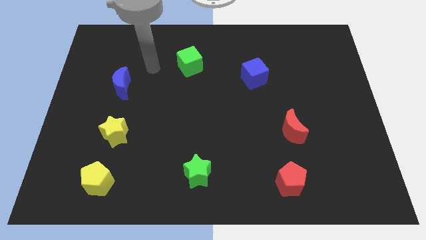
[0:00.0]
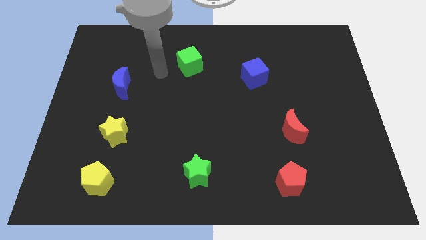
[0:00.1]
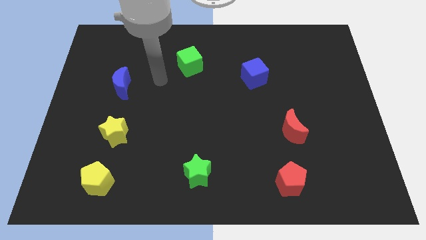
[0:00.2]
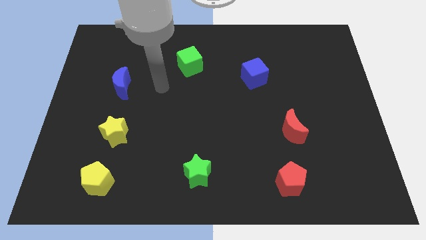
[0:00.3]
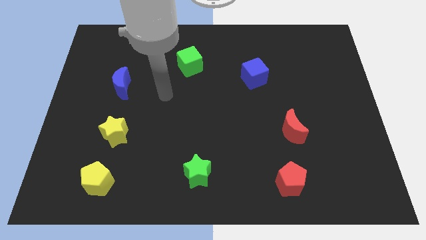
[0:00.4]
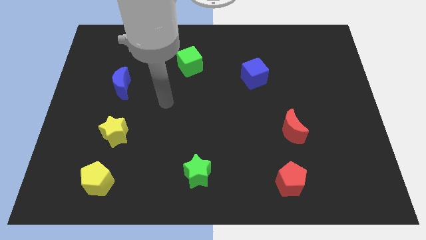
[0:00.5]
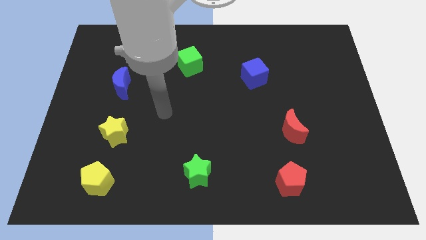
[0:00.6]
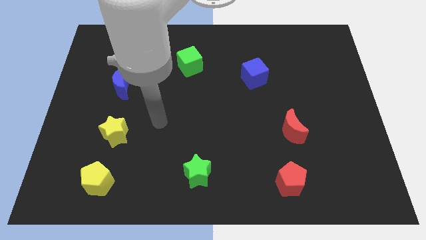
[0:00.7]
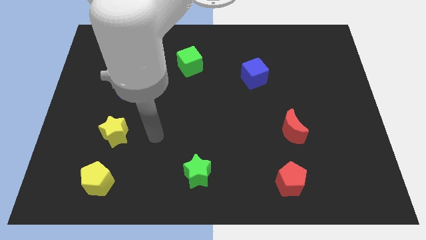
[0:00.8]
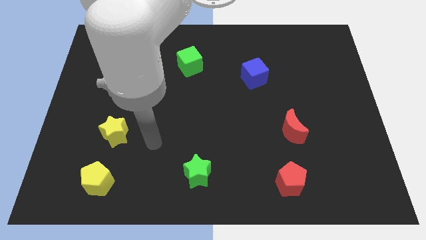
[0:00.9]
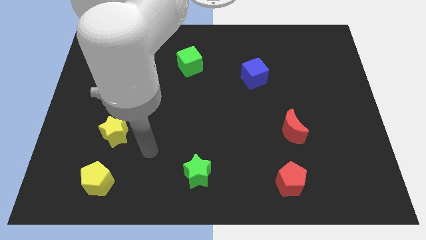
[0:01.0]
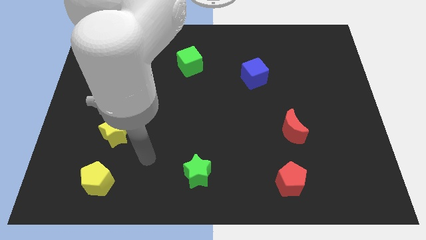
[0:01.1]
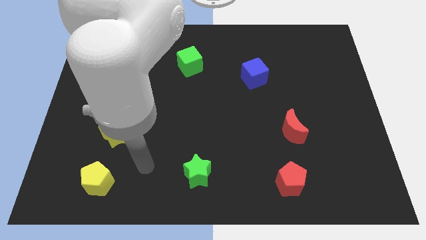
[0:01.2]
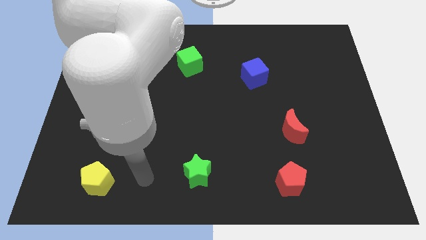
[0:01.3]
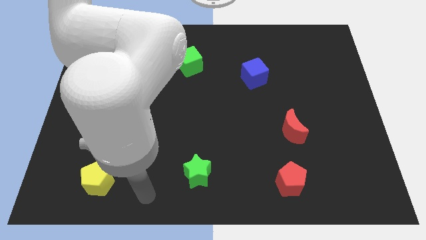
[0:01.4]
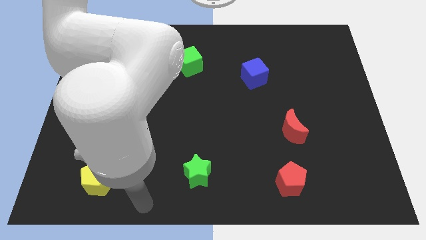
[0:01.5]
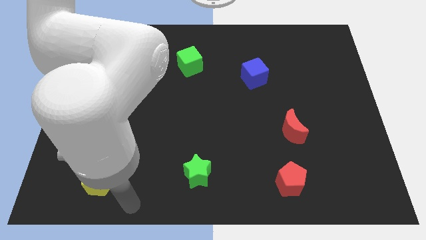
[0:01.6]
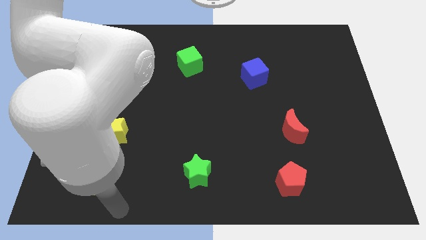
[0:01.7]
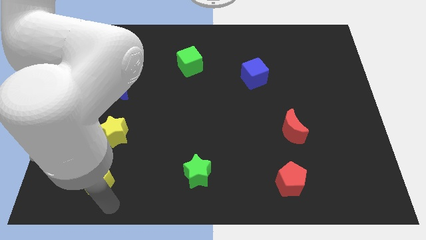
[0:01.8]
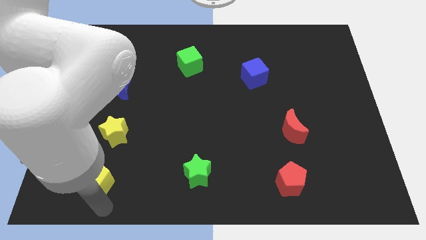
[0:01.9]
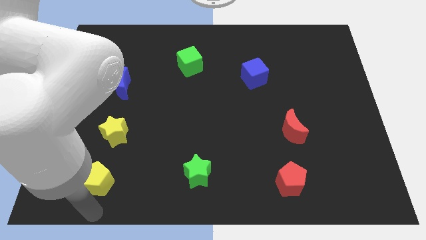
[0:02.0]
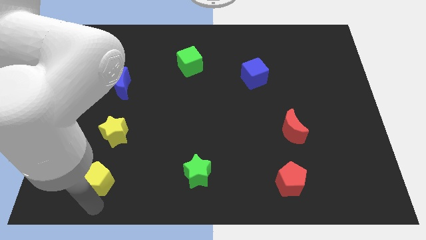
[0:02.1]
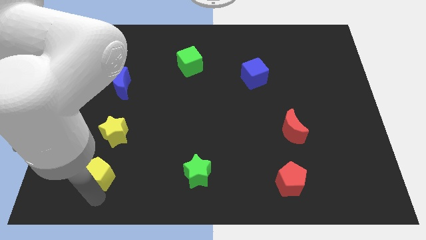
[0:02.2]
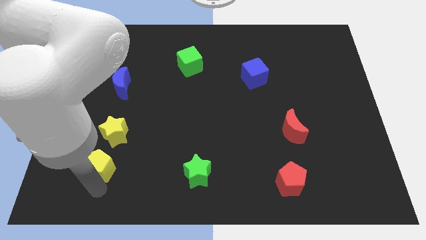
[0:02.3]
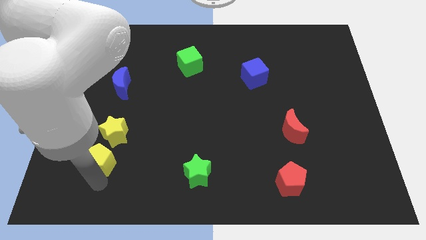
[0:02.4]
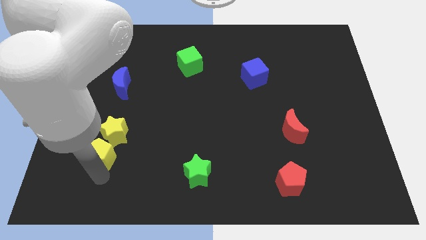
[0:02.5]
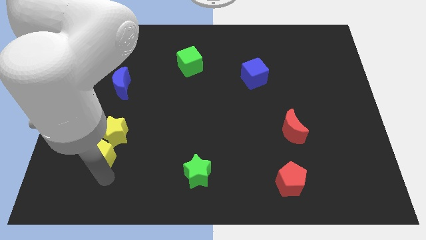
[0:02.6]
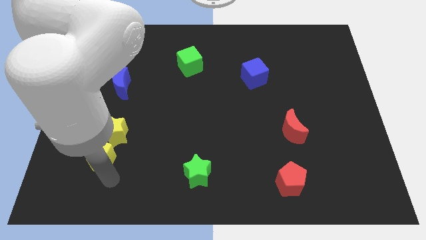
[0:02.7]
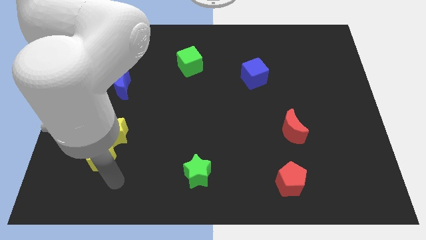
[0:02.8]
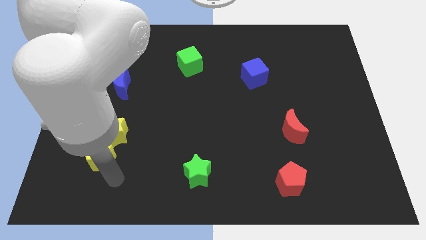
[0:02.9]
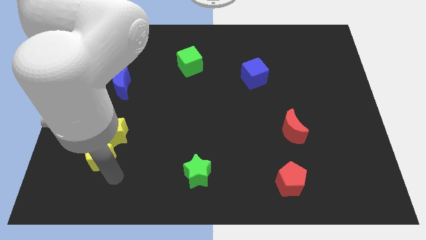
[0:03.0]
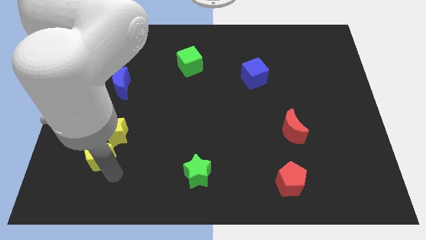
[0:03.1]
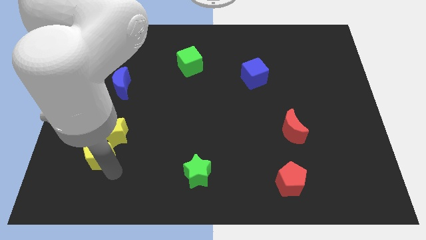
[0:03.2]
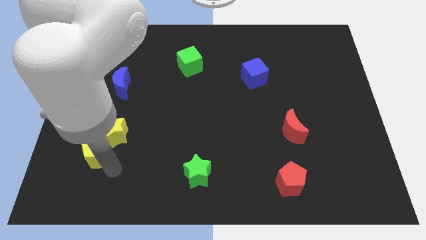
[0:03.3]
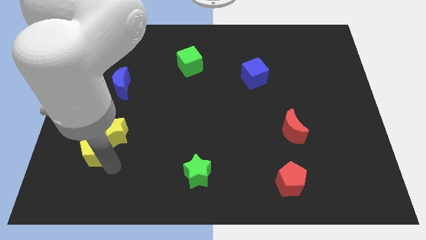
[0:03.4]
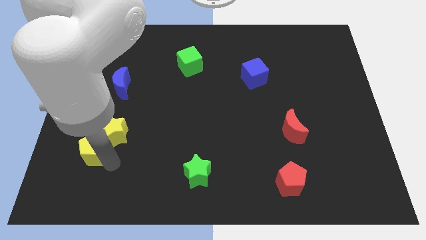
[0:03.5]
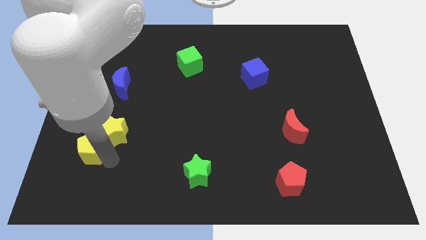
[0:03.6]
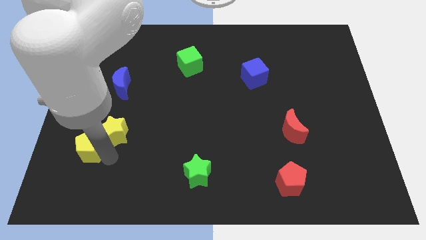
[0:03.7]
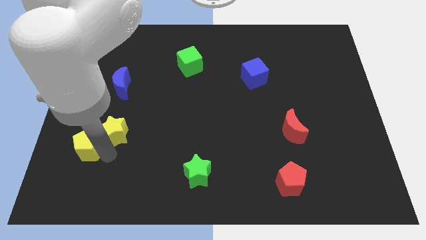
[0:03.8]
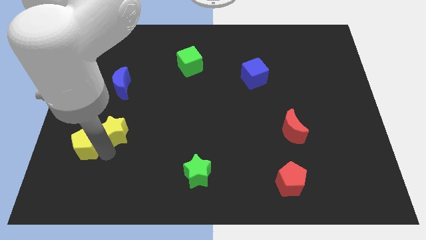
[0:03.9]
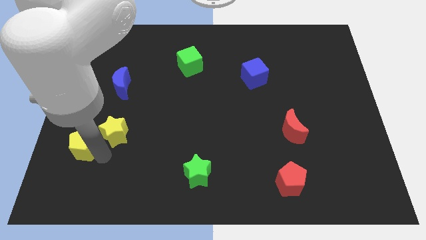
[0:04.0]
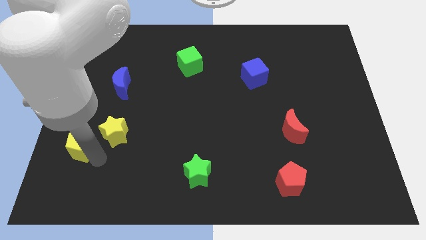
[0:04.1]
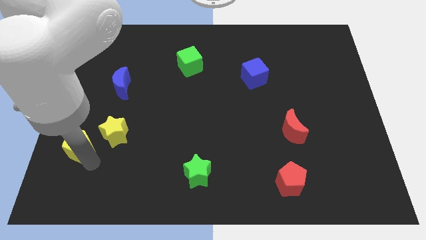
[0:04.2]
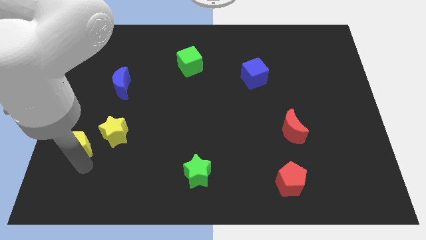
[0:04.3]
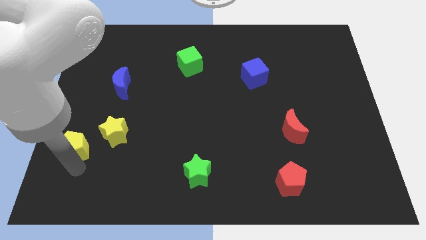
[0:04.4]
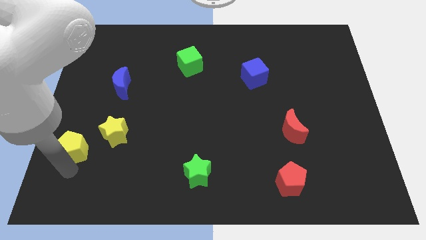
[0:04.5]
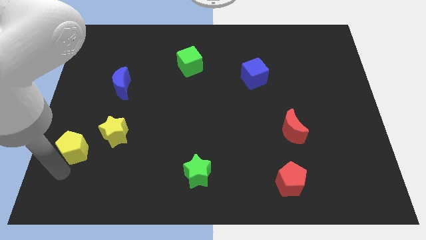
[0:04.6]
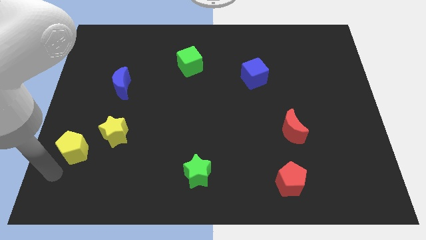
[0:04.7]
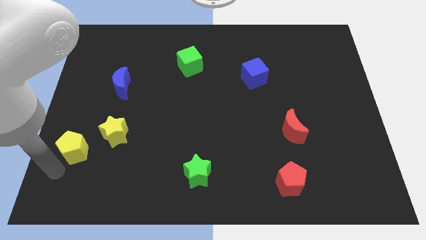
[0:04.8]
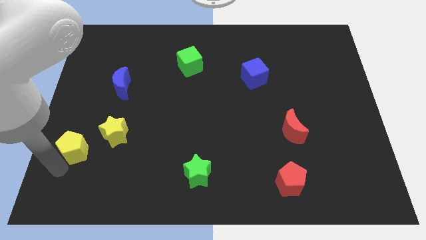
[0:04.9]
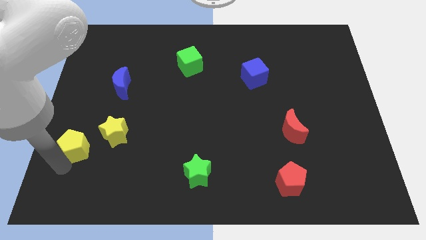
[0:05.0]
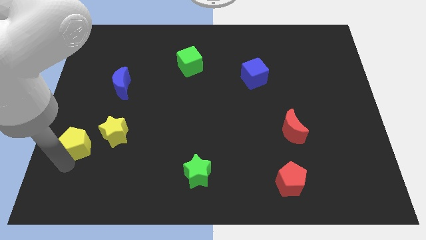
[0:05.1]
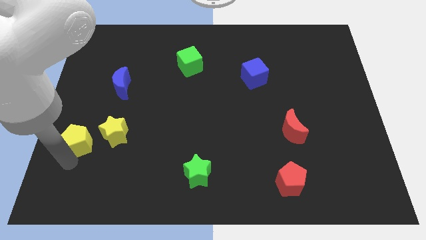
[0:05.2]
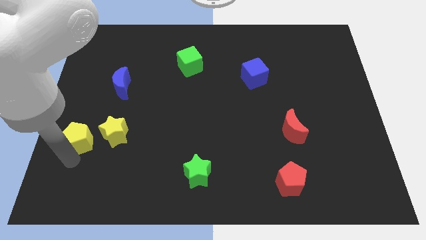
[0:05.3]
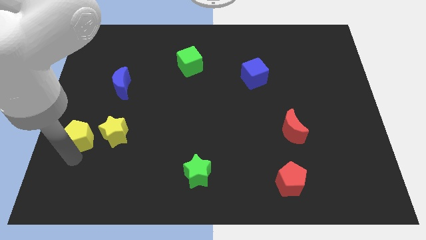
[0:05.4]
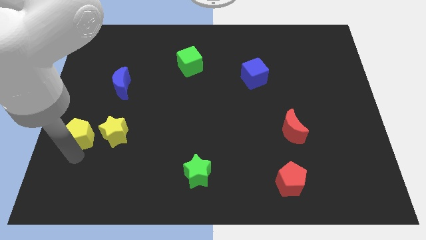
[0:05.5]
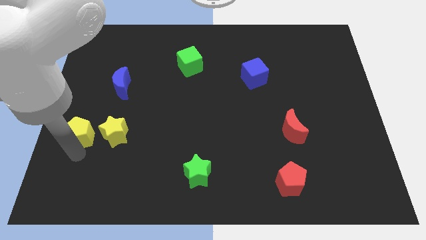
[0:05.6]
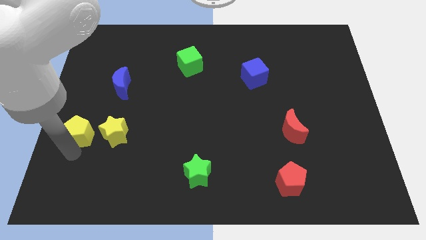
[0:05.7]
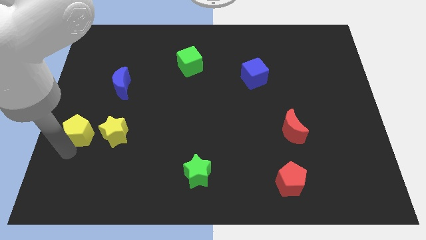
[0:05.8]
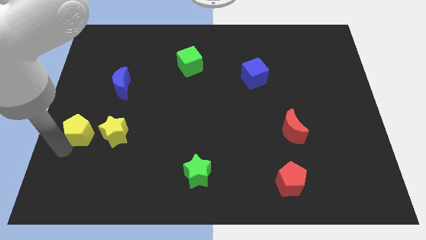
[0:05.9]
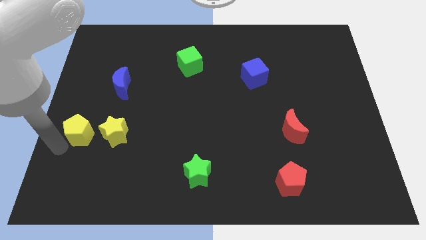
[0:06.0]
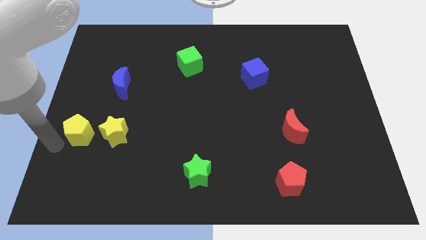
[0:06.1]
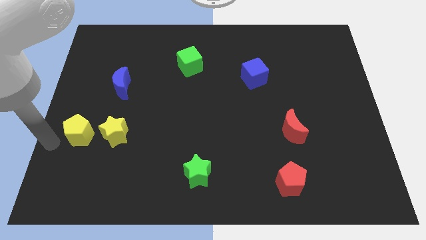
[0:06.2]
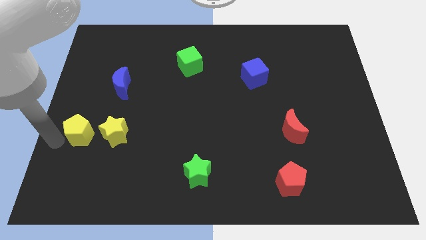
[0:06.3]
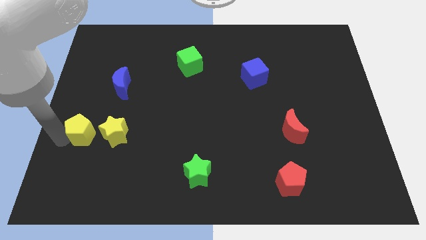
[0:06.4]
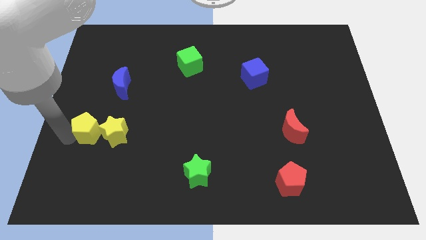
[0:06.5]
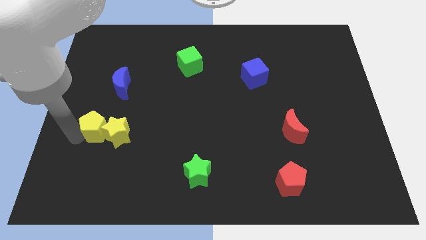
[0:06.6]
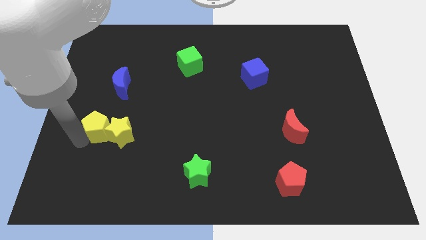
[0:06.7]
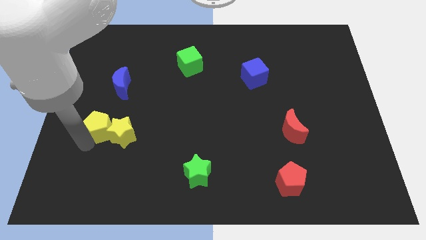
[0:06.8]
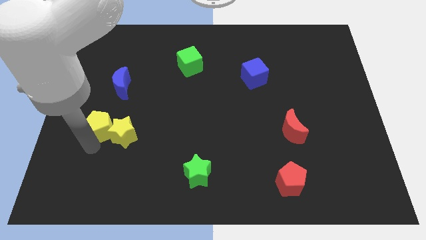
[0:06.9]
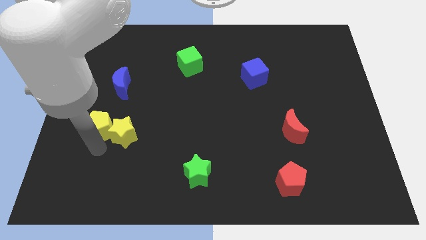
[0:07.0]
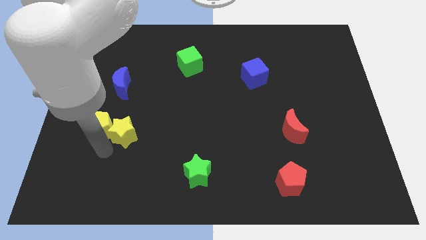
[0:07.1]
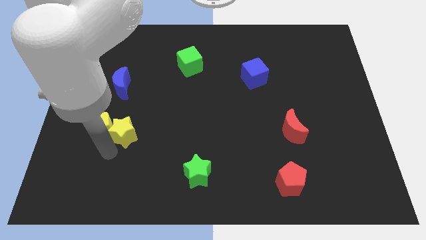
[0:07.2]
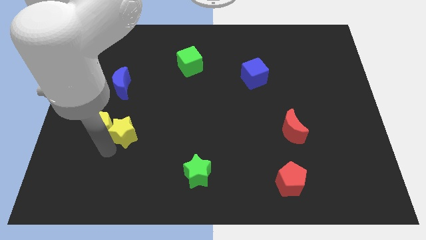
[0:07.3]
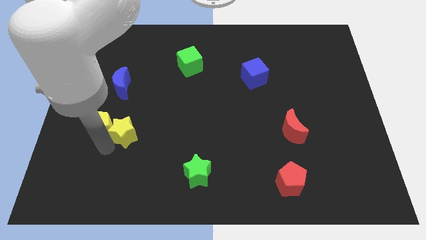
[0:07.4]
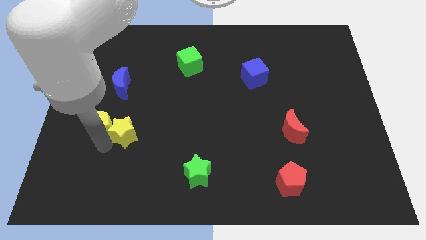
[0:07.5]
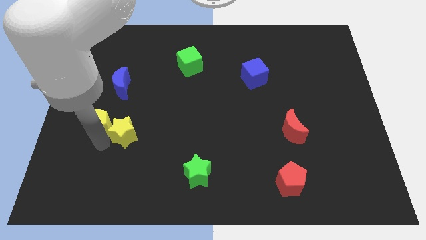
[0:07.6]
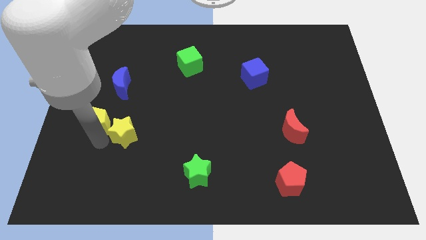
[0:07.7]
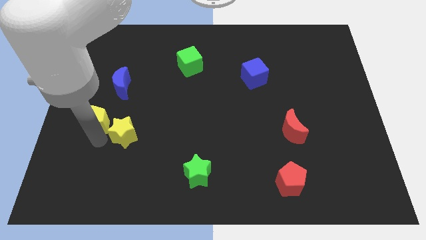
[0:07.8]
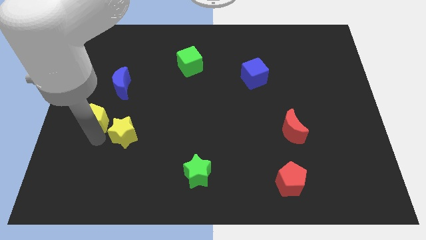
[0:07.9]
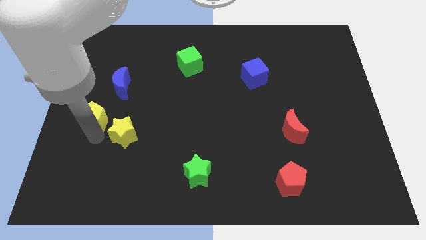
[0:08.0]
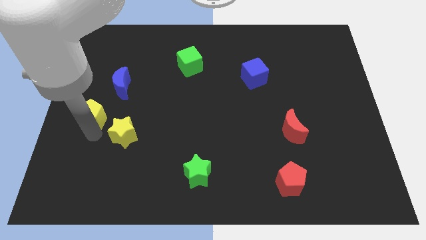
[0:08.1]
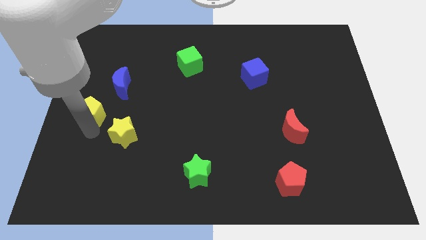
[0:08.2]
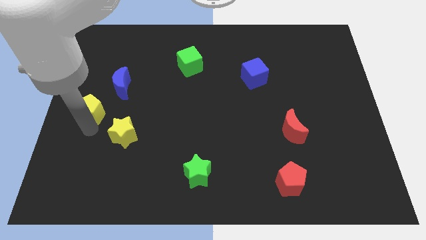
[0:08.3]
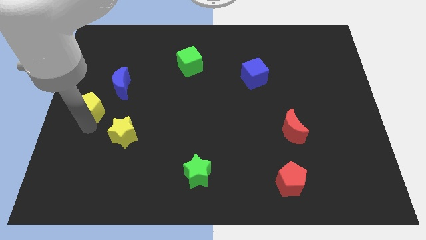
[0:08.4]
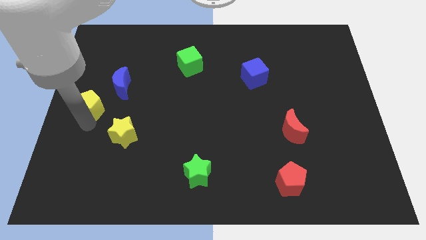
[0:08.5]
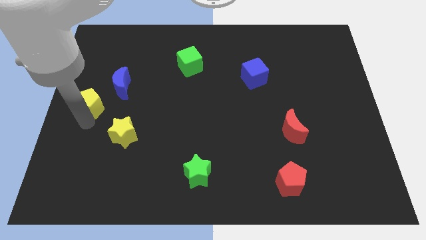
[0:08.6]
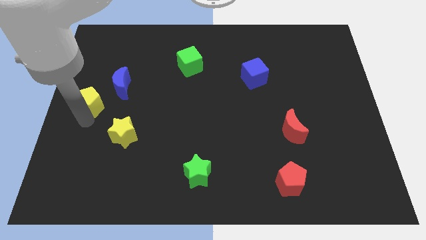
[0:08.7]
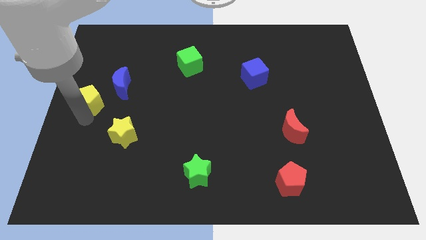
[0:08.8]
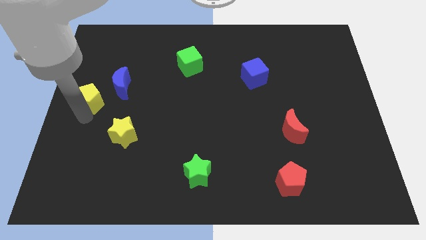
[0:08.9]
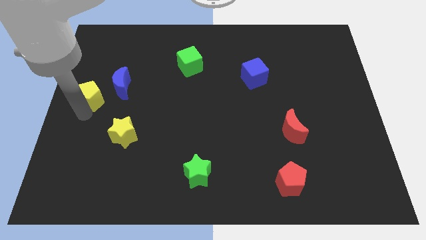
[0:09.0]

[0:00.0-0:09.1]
slide the yellow pentagon upwards
